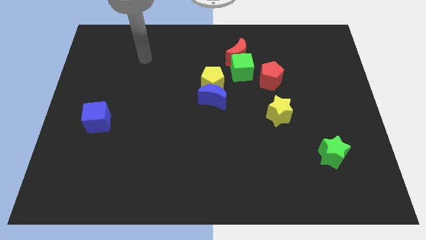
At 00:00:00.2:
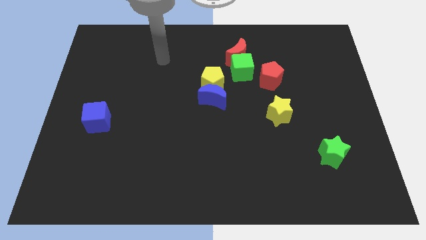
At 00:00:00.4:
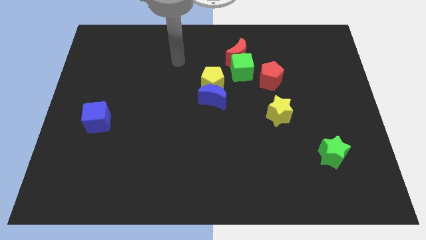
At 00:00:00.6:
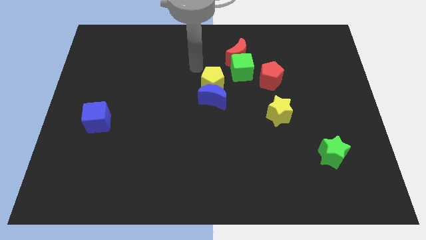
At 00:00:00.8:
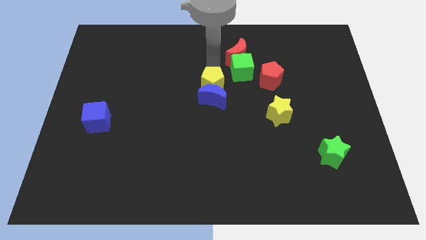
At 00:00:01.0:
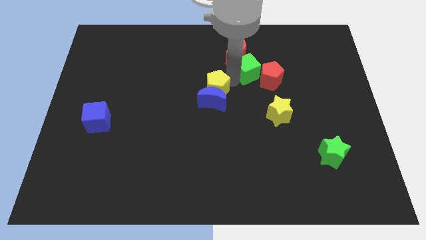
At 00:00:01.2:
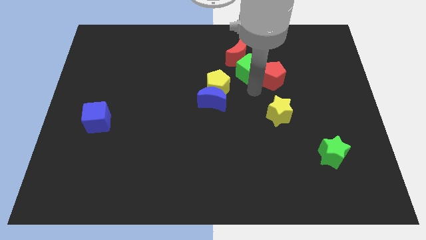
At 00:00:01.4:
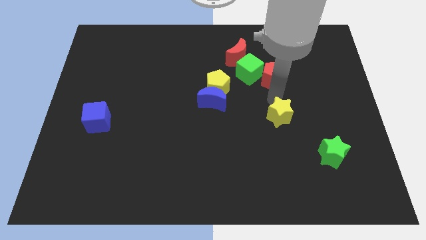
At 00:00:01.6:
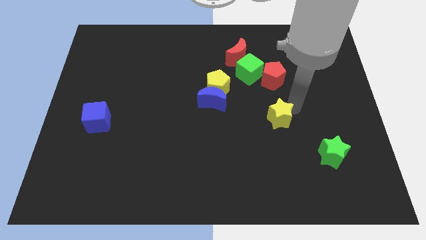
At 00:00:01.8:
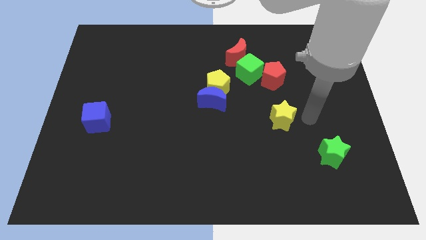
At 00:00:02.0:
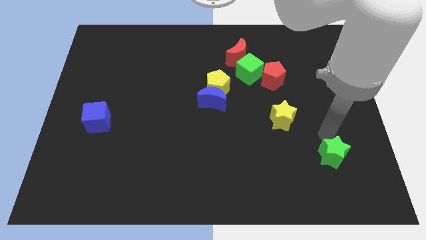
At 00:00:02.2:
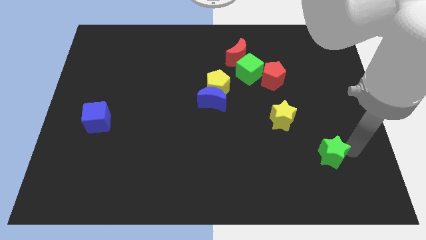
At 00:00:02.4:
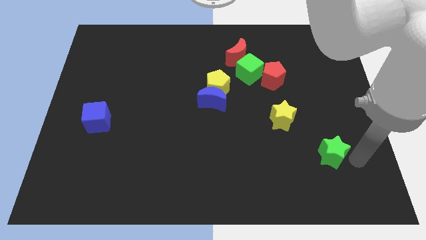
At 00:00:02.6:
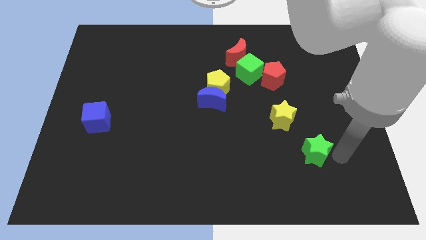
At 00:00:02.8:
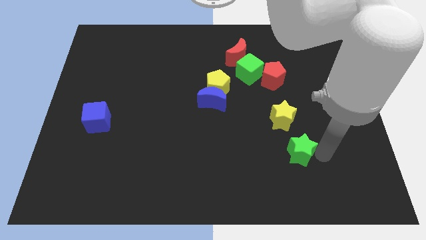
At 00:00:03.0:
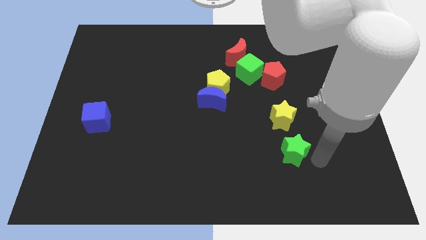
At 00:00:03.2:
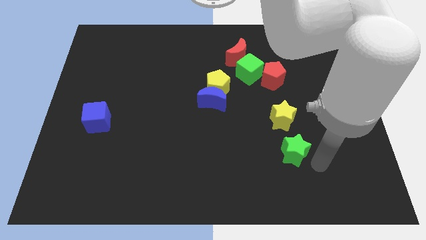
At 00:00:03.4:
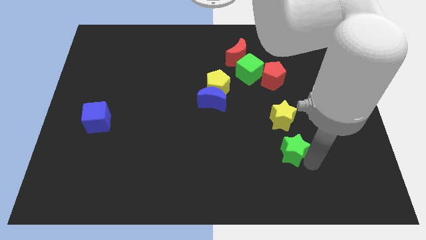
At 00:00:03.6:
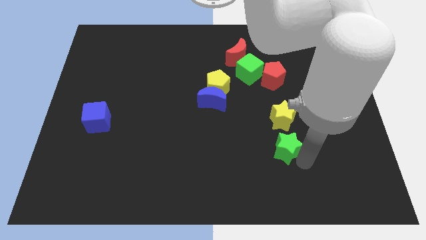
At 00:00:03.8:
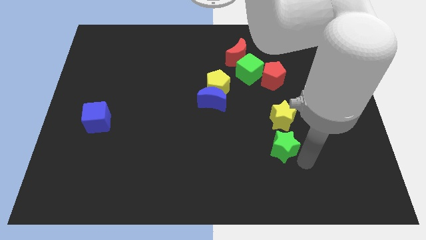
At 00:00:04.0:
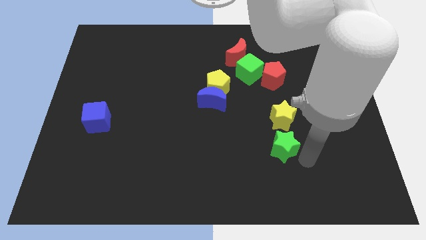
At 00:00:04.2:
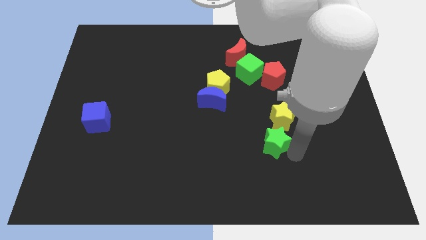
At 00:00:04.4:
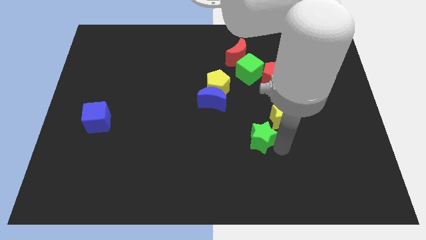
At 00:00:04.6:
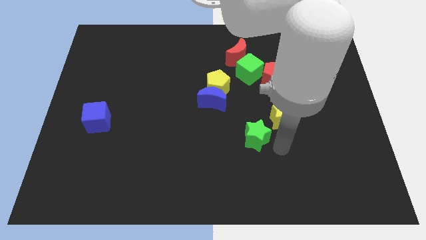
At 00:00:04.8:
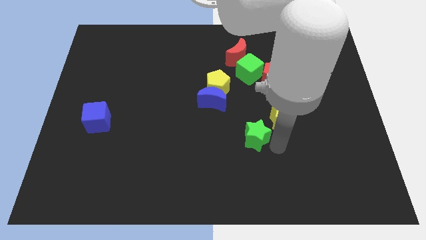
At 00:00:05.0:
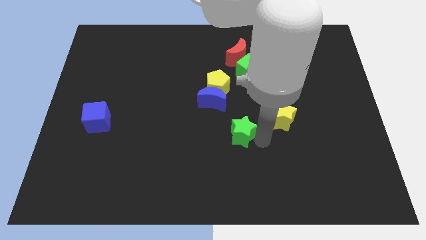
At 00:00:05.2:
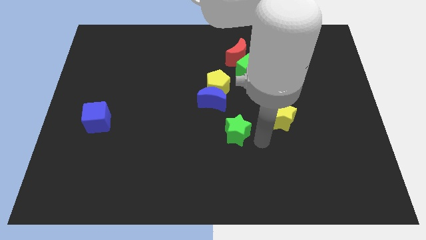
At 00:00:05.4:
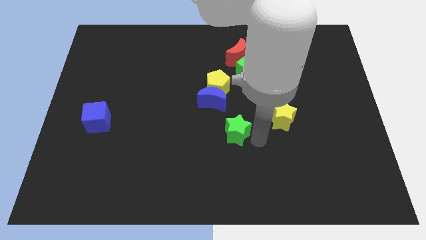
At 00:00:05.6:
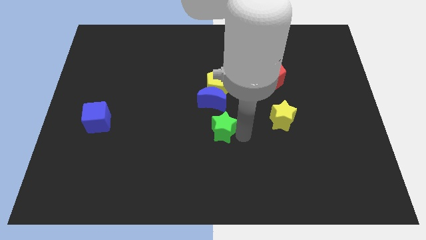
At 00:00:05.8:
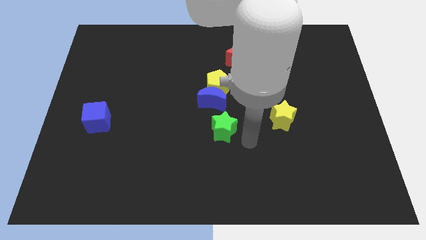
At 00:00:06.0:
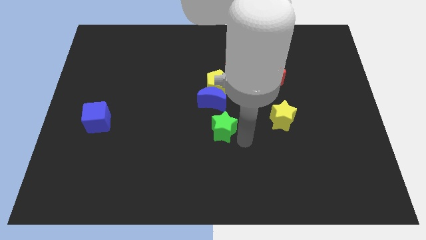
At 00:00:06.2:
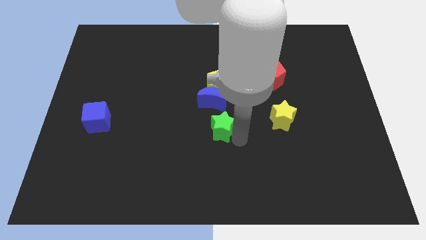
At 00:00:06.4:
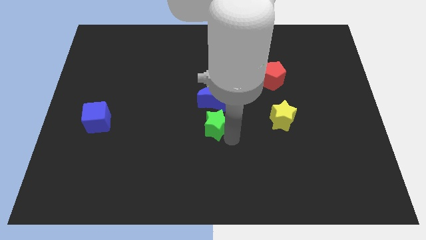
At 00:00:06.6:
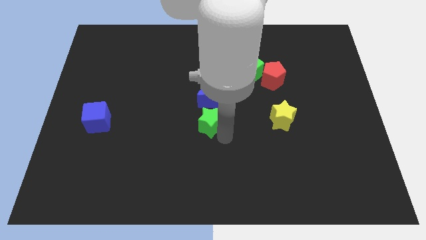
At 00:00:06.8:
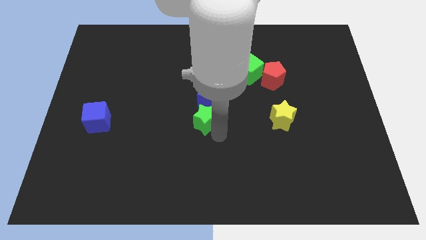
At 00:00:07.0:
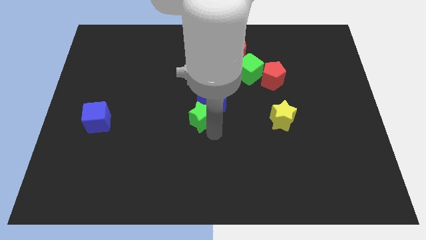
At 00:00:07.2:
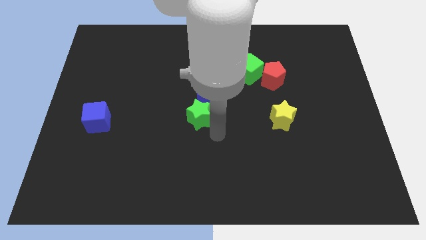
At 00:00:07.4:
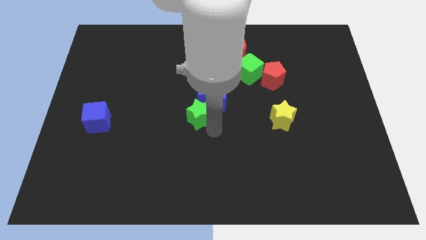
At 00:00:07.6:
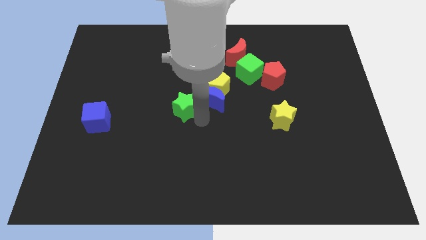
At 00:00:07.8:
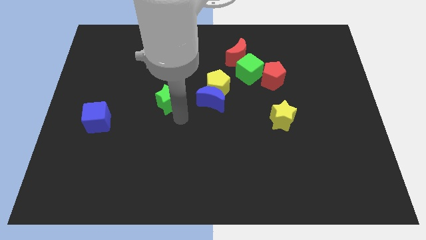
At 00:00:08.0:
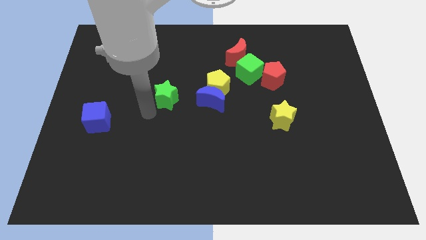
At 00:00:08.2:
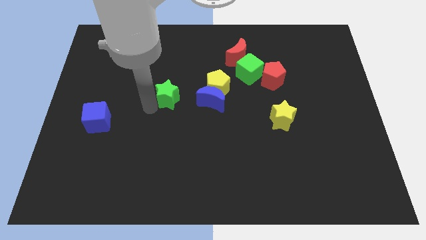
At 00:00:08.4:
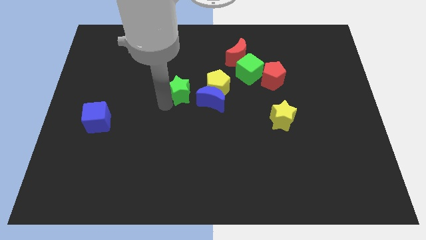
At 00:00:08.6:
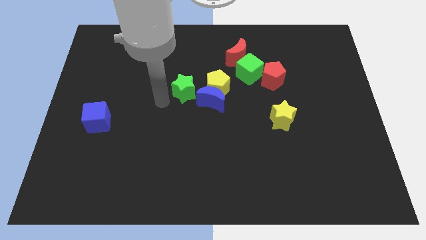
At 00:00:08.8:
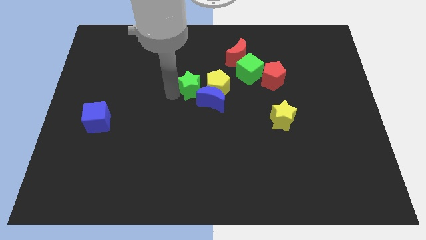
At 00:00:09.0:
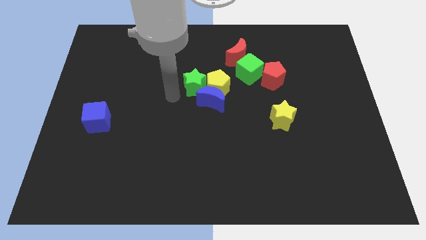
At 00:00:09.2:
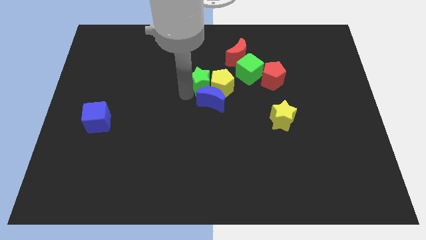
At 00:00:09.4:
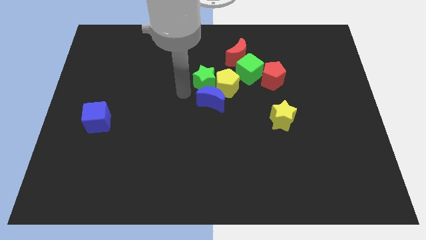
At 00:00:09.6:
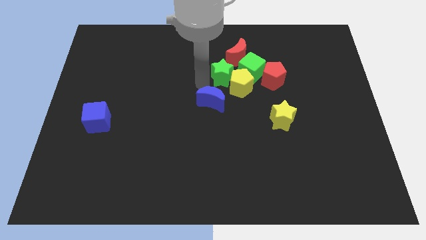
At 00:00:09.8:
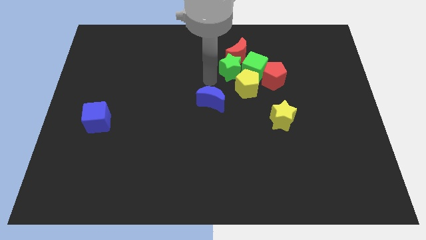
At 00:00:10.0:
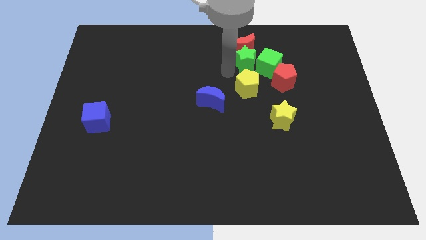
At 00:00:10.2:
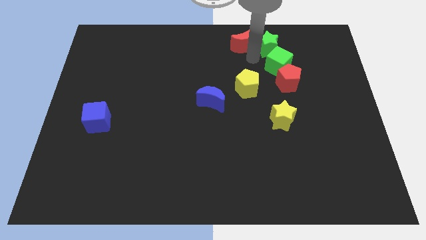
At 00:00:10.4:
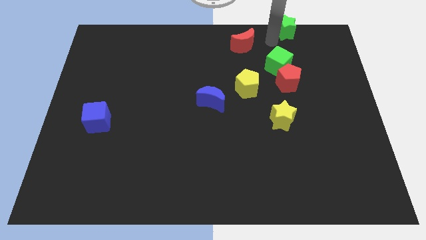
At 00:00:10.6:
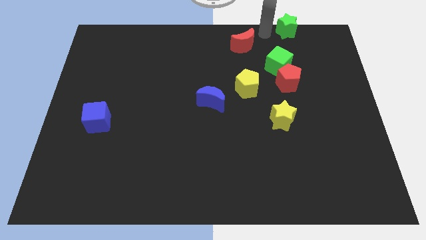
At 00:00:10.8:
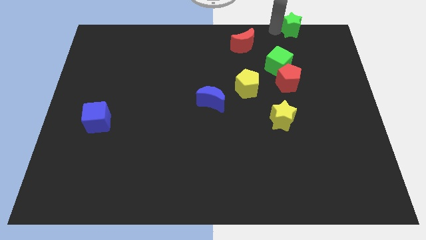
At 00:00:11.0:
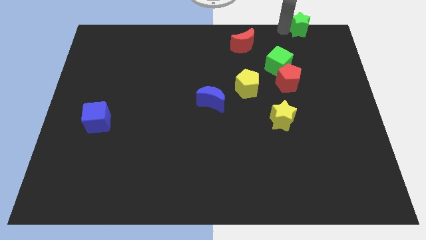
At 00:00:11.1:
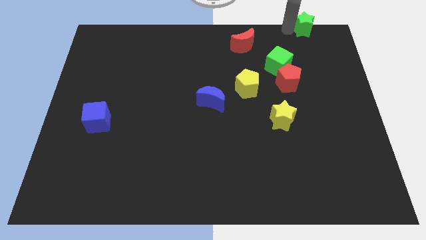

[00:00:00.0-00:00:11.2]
slide the green star to the top right corner

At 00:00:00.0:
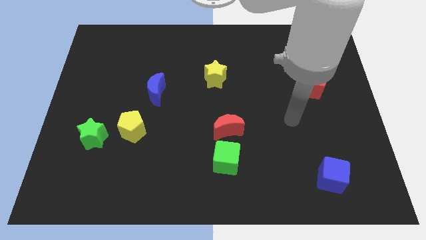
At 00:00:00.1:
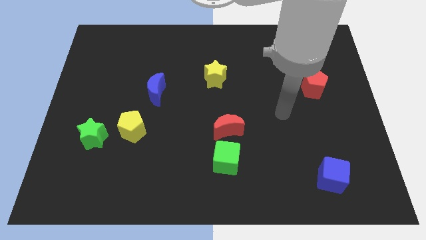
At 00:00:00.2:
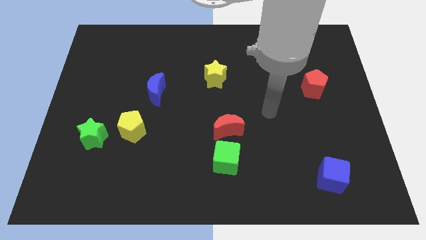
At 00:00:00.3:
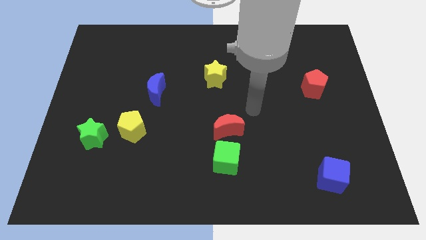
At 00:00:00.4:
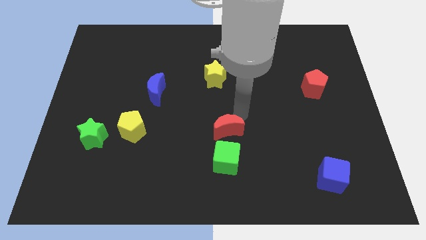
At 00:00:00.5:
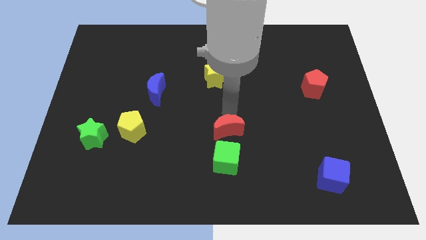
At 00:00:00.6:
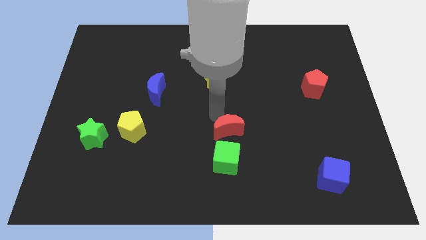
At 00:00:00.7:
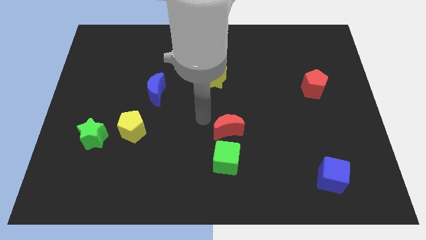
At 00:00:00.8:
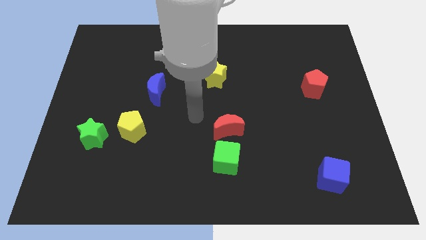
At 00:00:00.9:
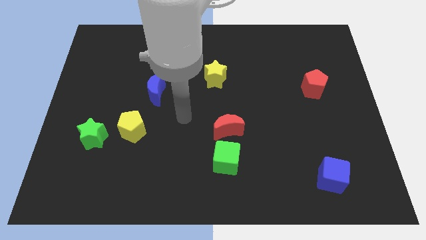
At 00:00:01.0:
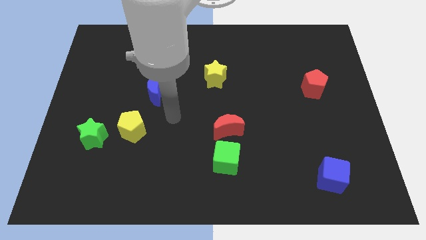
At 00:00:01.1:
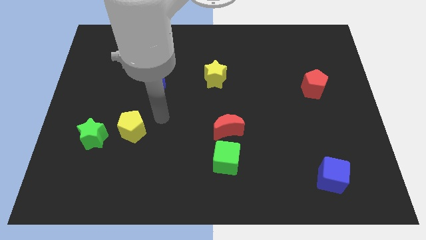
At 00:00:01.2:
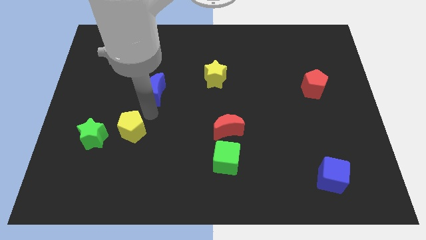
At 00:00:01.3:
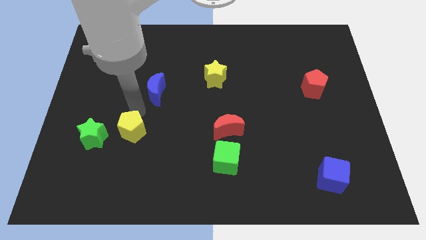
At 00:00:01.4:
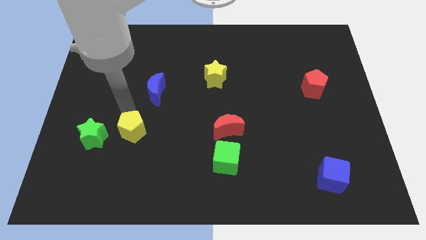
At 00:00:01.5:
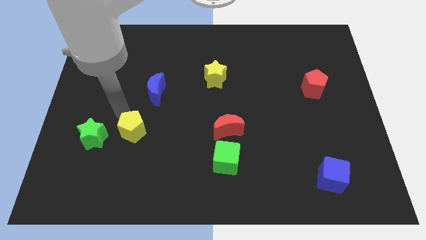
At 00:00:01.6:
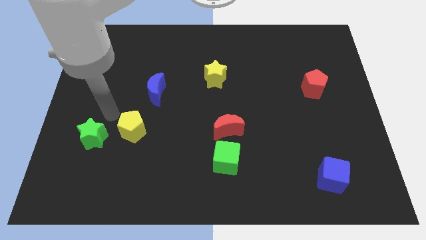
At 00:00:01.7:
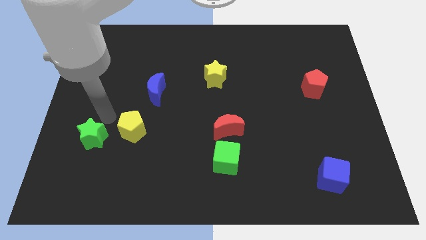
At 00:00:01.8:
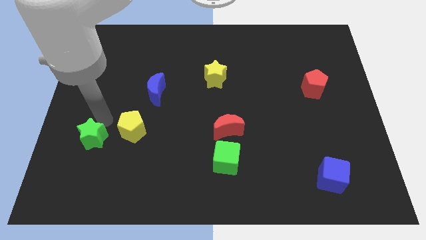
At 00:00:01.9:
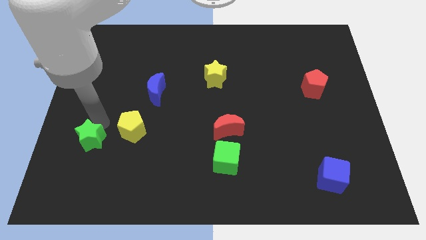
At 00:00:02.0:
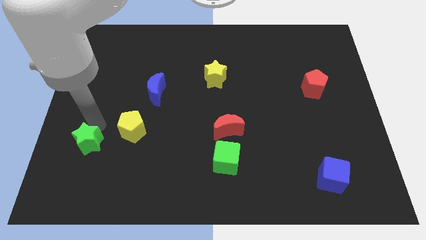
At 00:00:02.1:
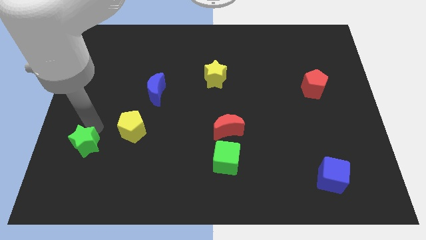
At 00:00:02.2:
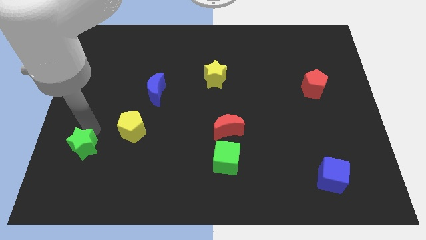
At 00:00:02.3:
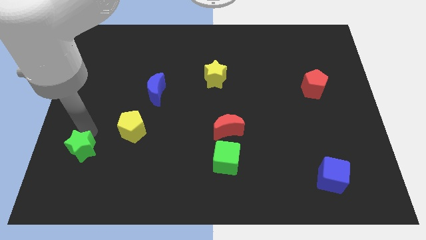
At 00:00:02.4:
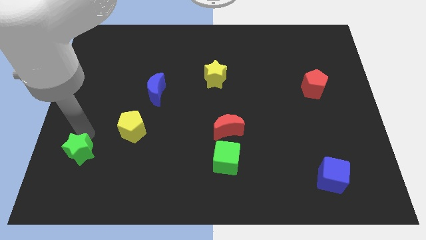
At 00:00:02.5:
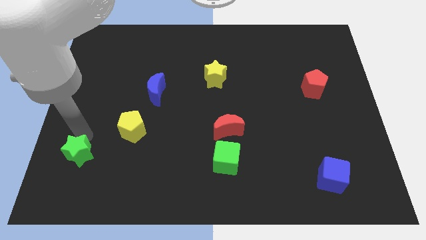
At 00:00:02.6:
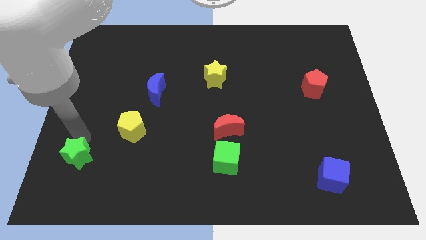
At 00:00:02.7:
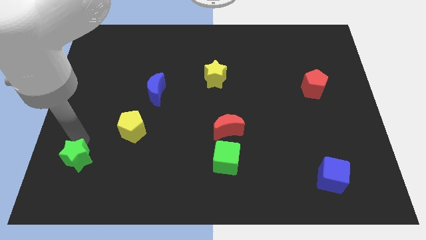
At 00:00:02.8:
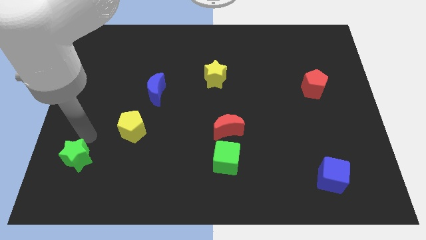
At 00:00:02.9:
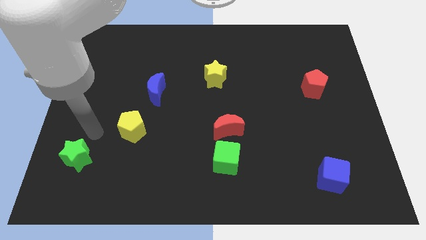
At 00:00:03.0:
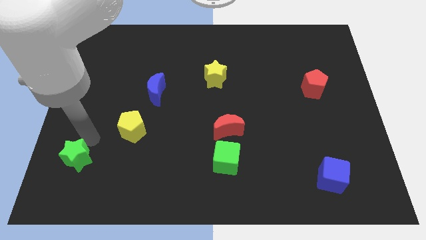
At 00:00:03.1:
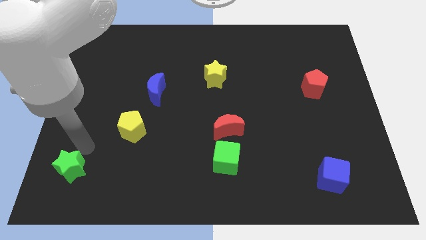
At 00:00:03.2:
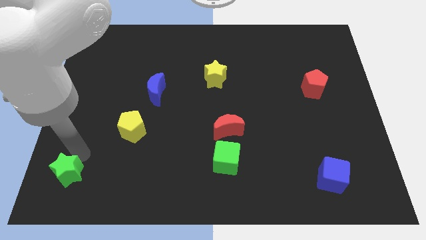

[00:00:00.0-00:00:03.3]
slide the green star to the bottom left of the board
